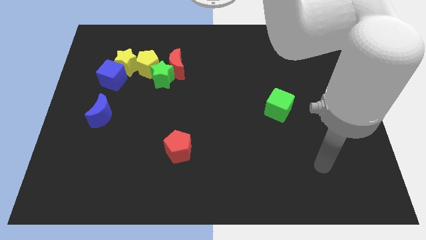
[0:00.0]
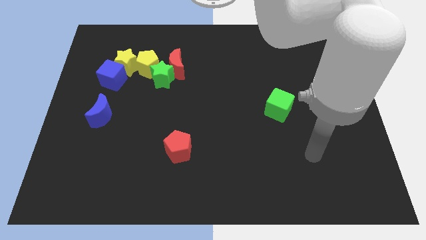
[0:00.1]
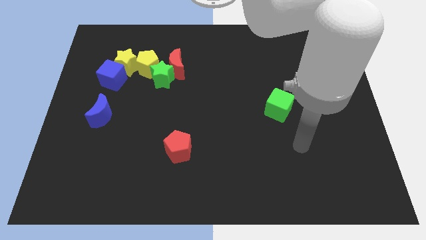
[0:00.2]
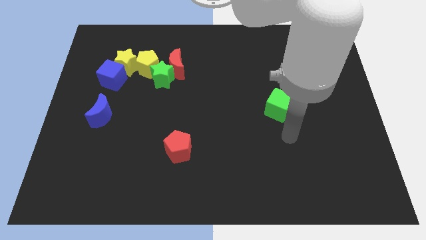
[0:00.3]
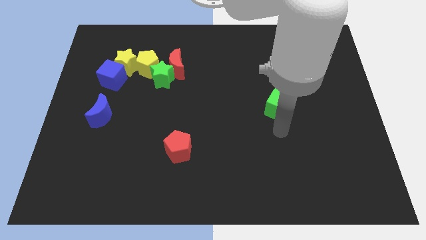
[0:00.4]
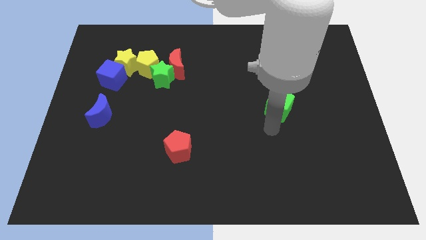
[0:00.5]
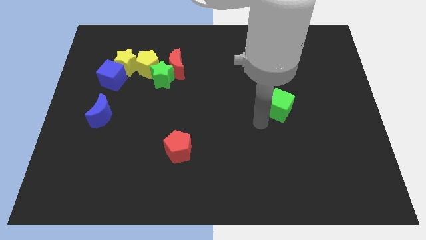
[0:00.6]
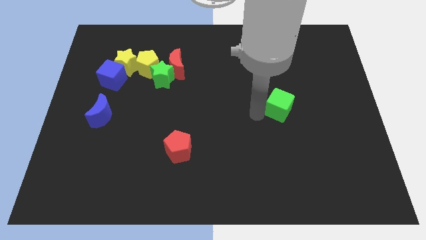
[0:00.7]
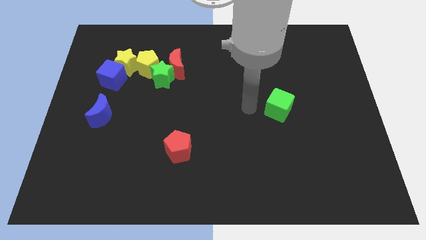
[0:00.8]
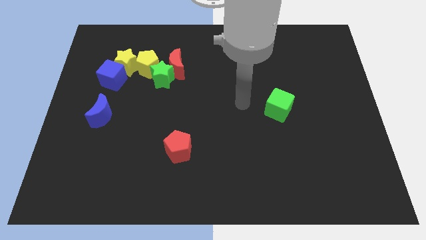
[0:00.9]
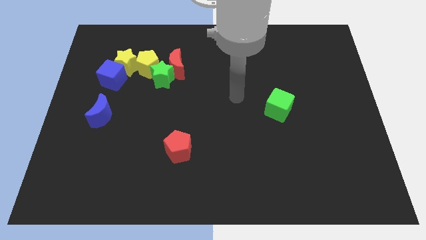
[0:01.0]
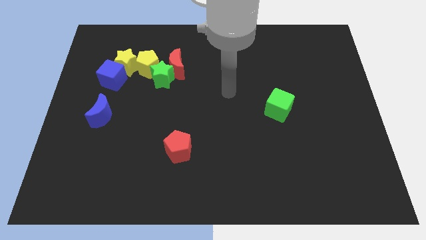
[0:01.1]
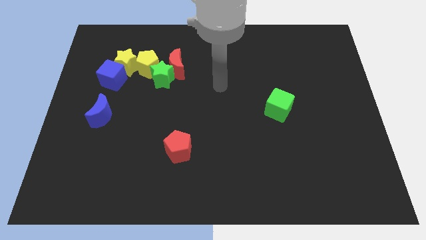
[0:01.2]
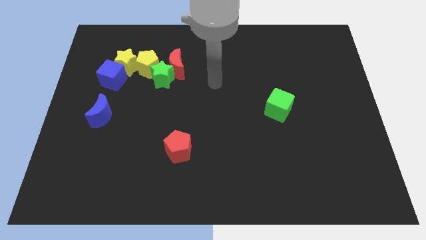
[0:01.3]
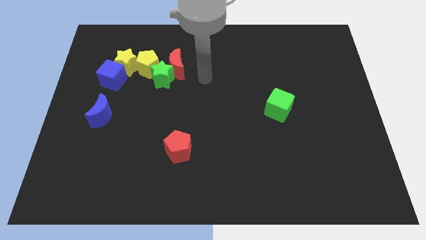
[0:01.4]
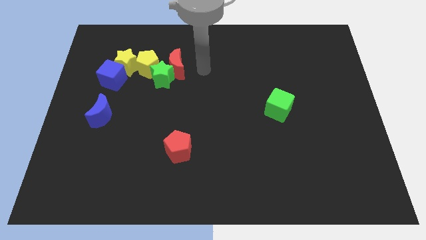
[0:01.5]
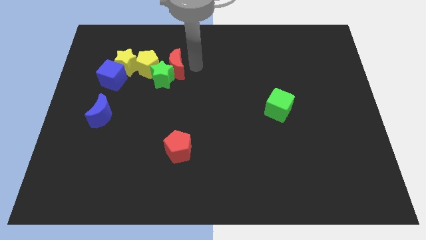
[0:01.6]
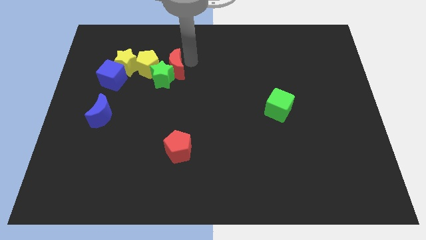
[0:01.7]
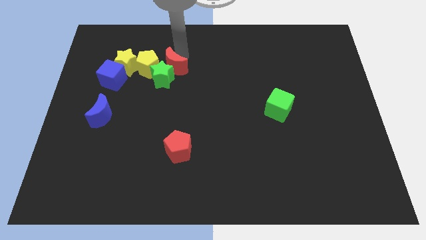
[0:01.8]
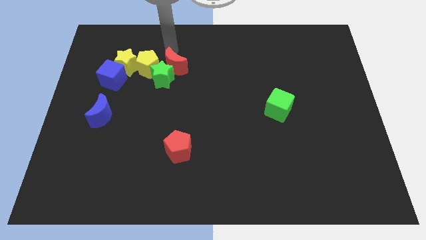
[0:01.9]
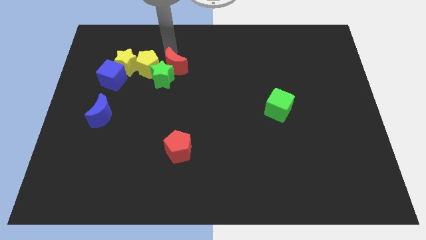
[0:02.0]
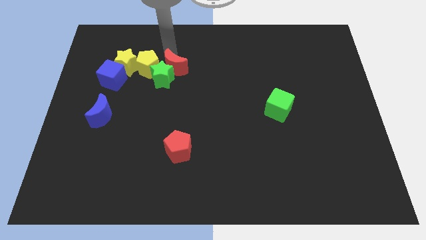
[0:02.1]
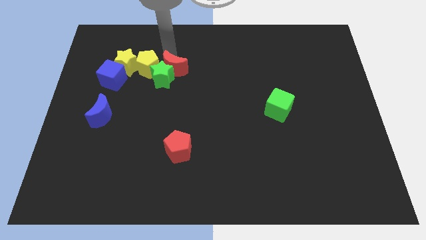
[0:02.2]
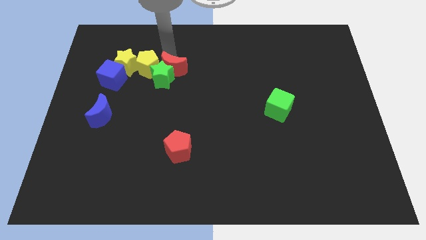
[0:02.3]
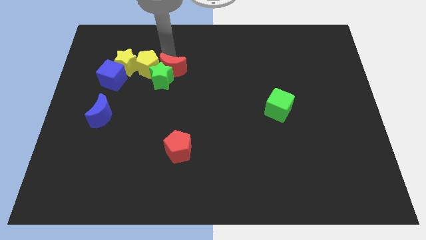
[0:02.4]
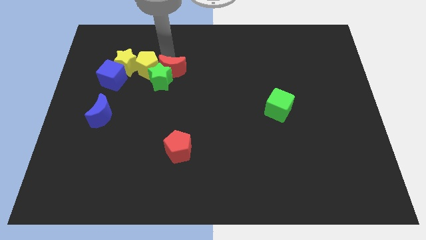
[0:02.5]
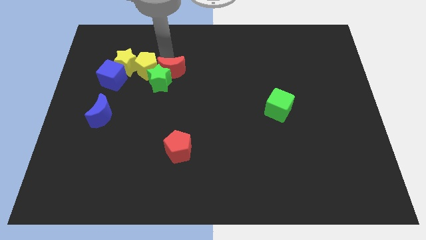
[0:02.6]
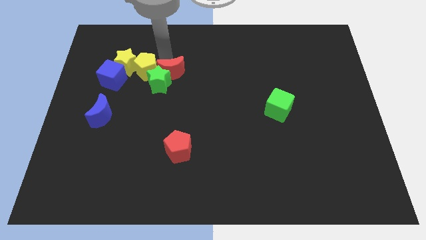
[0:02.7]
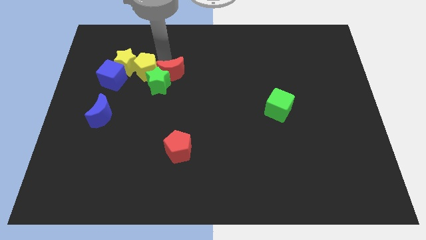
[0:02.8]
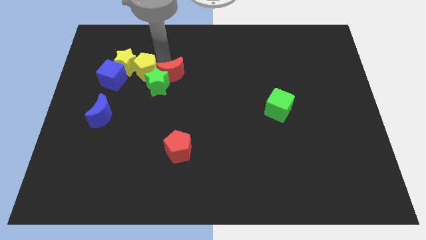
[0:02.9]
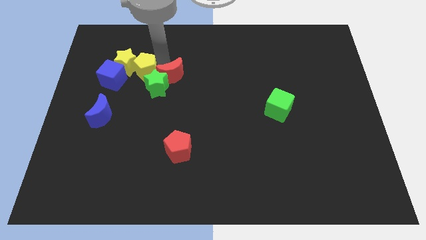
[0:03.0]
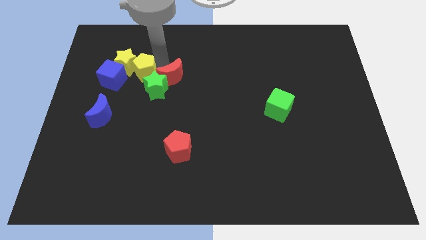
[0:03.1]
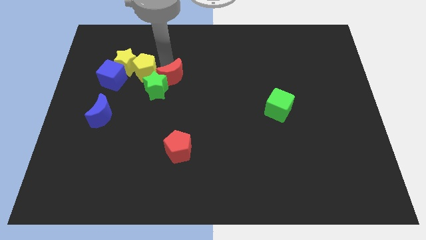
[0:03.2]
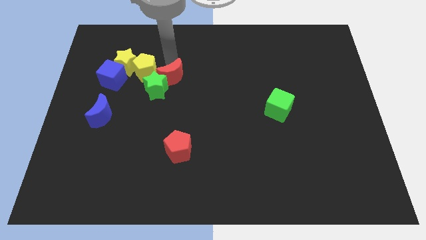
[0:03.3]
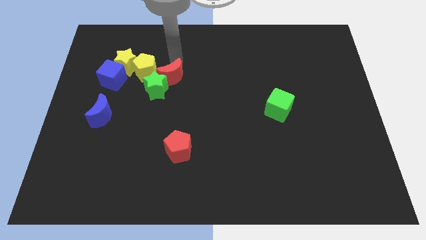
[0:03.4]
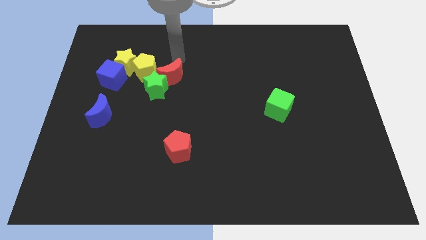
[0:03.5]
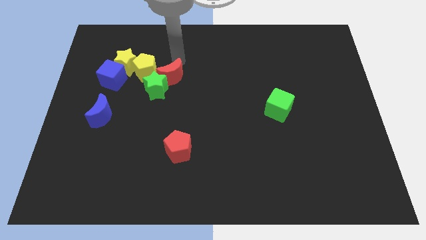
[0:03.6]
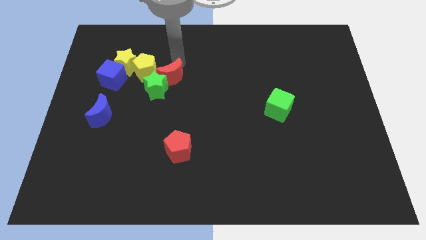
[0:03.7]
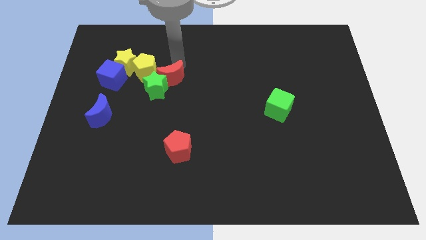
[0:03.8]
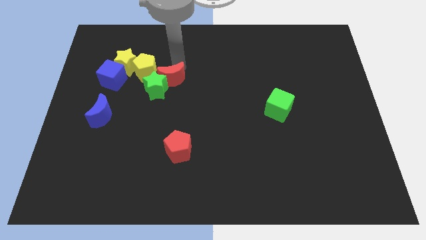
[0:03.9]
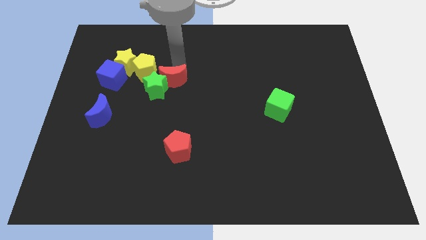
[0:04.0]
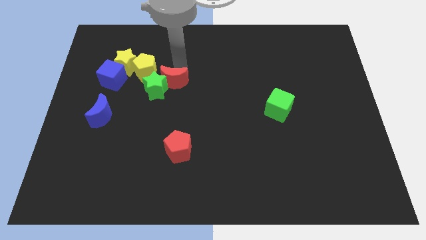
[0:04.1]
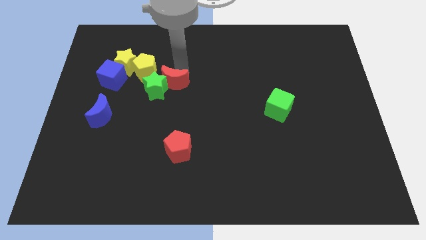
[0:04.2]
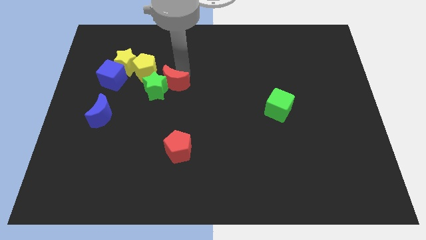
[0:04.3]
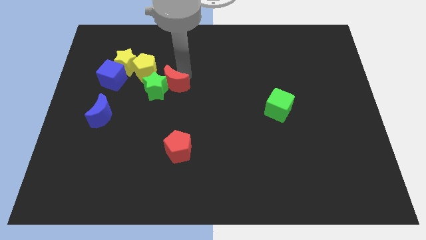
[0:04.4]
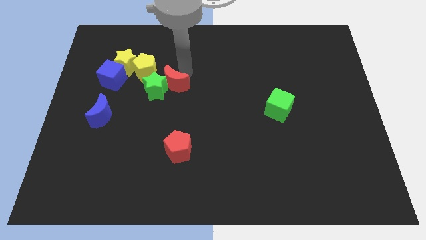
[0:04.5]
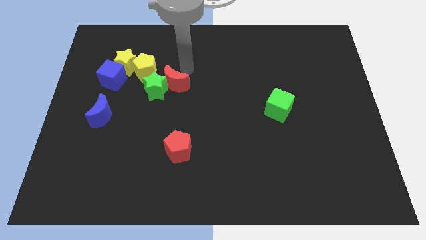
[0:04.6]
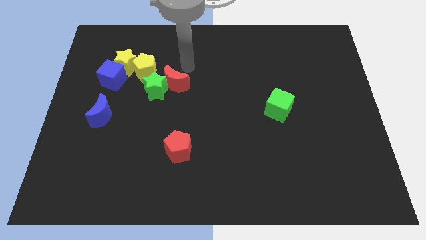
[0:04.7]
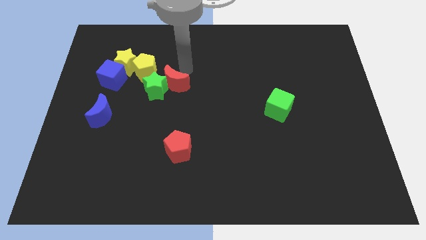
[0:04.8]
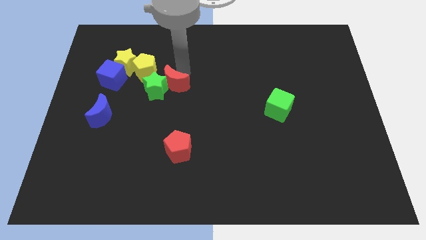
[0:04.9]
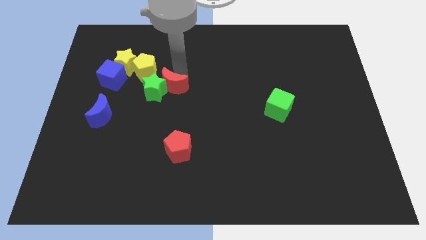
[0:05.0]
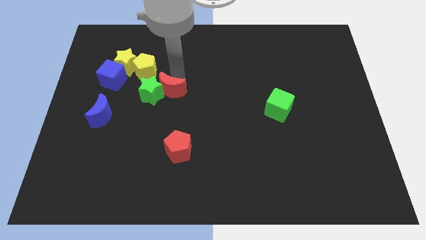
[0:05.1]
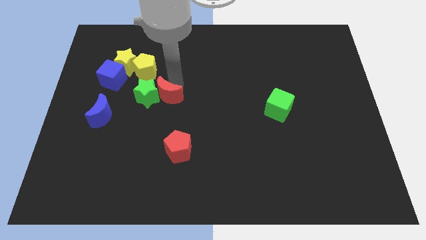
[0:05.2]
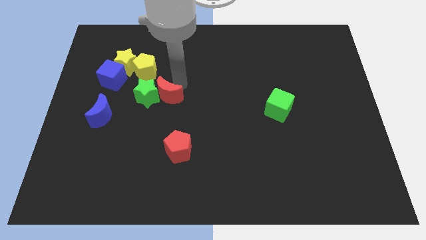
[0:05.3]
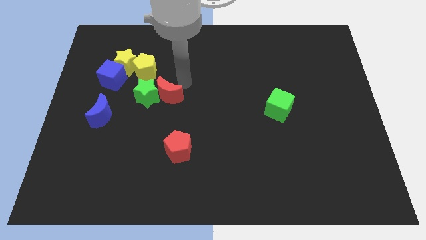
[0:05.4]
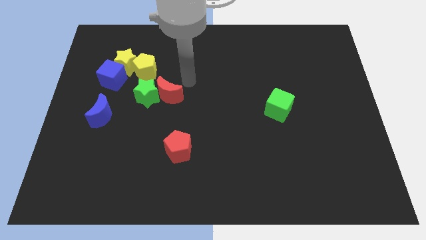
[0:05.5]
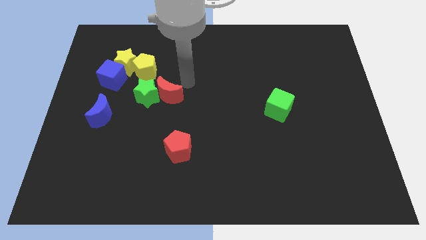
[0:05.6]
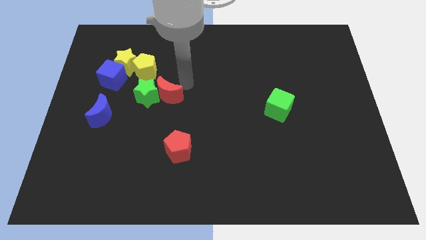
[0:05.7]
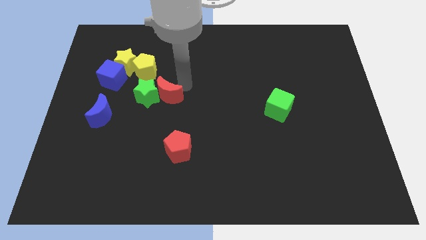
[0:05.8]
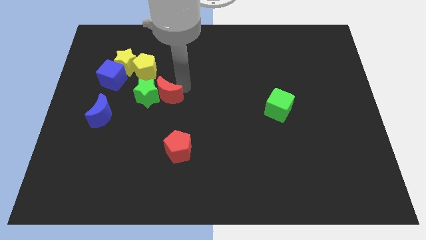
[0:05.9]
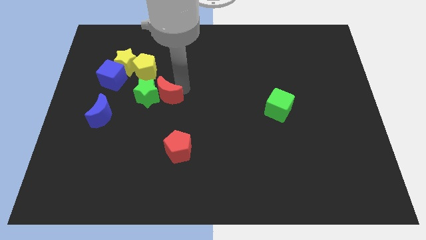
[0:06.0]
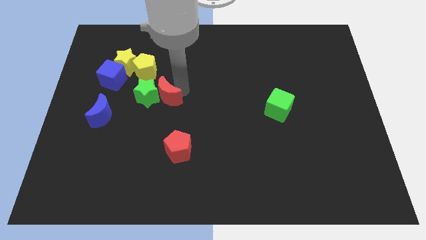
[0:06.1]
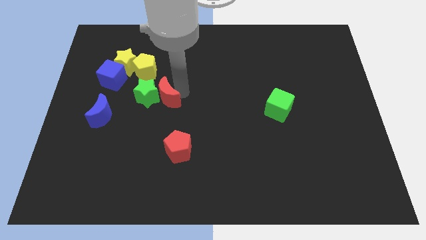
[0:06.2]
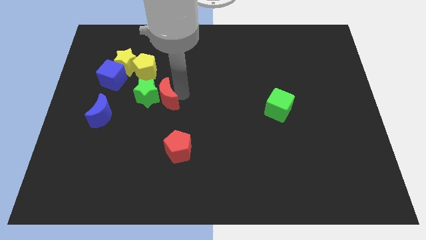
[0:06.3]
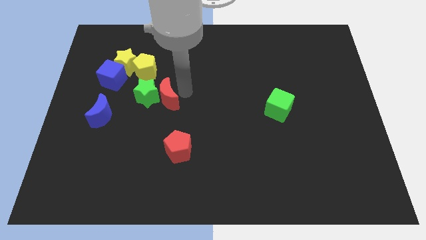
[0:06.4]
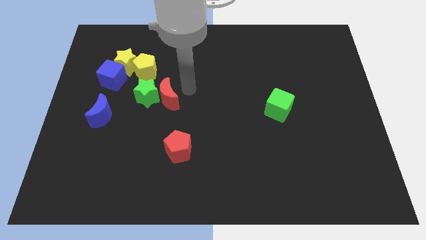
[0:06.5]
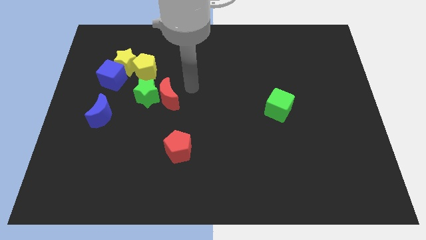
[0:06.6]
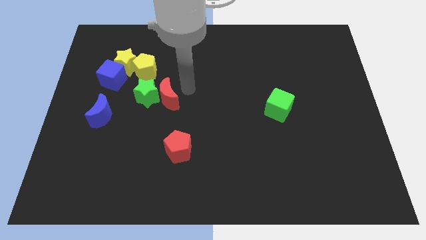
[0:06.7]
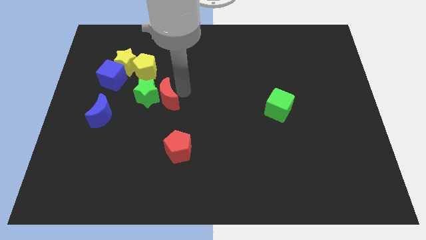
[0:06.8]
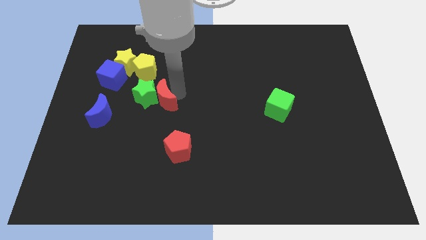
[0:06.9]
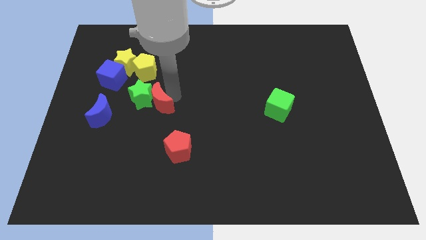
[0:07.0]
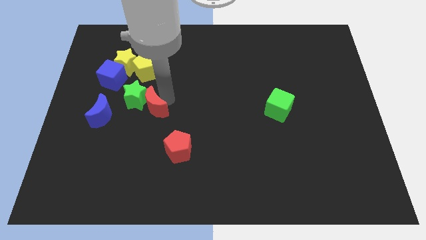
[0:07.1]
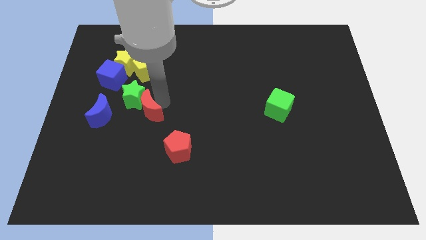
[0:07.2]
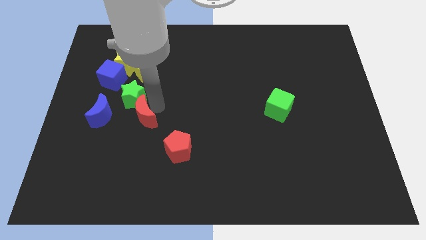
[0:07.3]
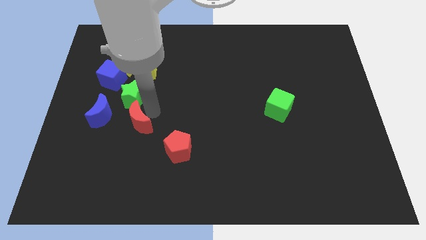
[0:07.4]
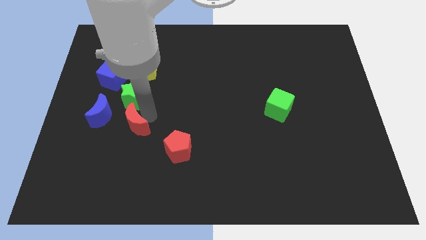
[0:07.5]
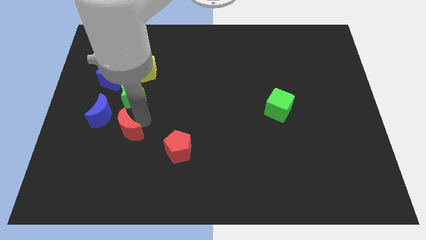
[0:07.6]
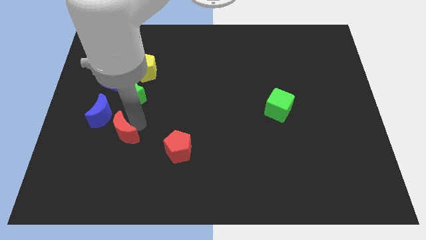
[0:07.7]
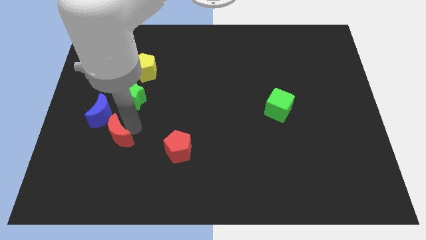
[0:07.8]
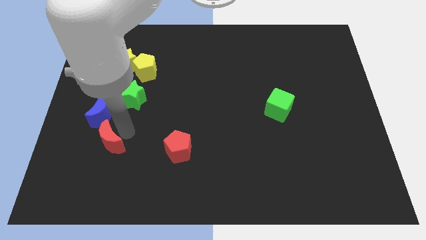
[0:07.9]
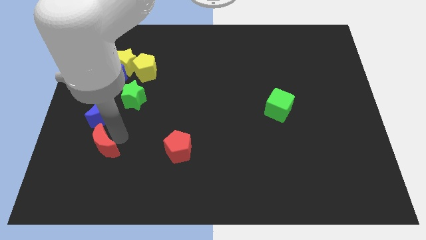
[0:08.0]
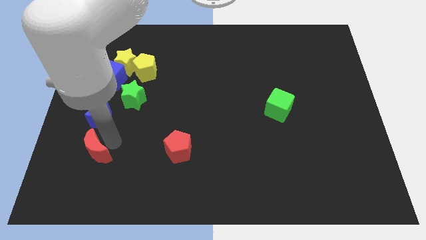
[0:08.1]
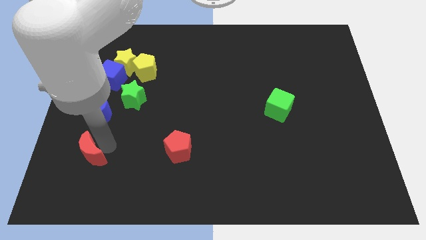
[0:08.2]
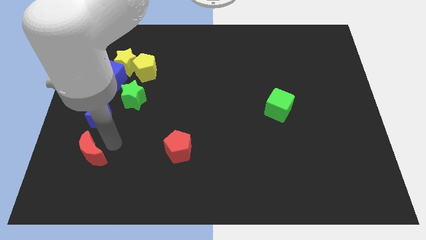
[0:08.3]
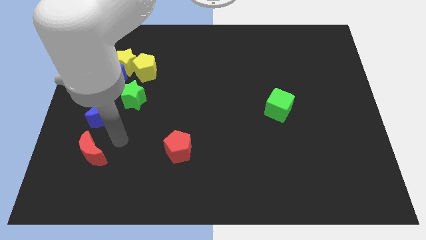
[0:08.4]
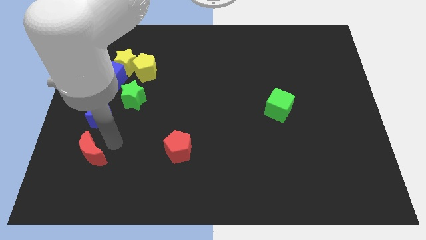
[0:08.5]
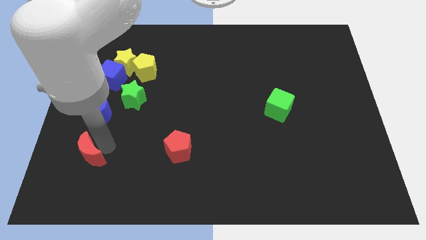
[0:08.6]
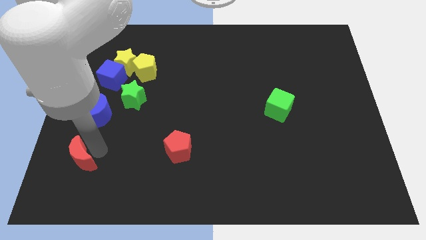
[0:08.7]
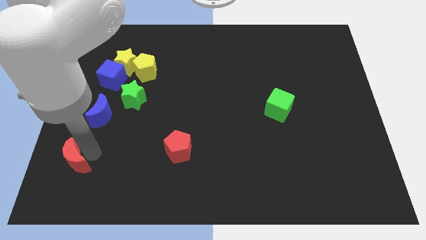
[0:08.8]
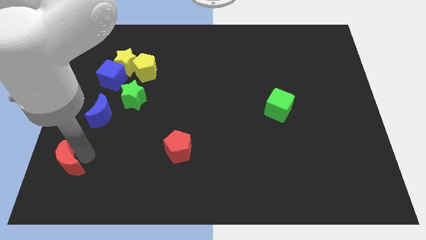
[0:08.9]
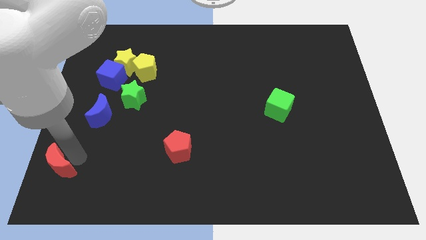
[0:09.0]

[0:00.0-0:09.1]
move the red moon to the lower left corner
